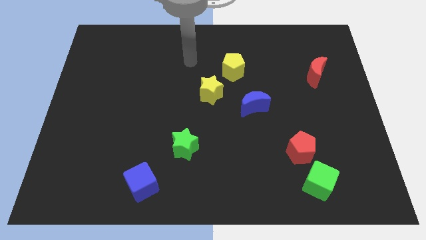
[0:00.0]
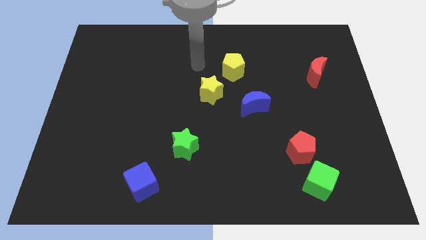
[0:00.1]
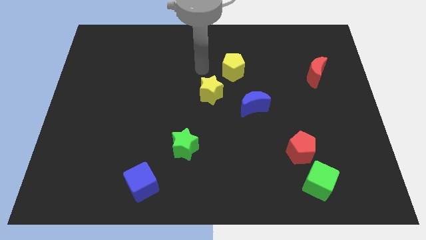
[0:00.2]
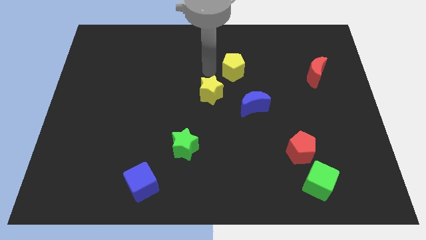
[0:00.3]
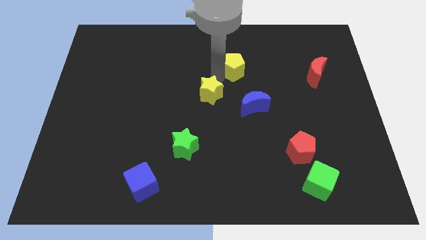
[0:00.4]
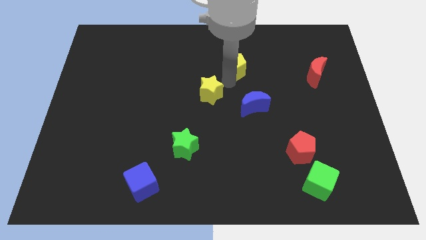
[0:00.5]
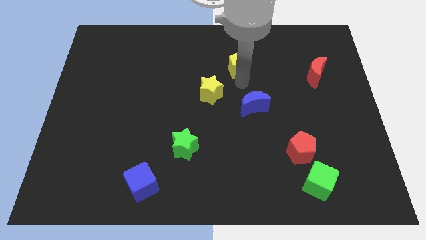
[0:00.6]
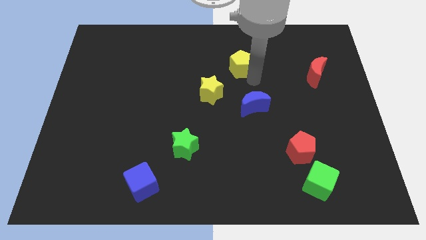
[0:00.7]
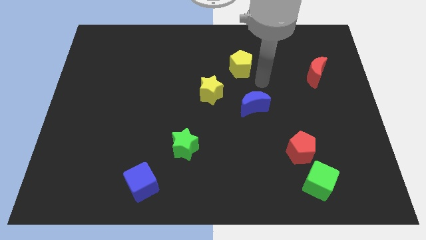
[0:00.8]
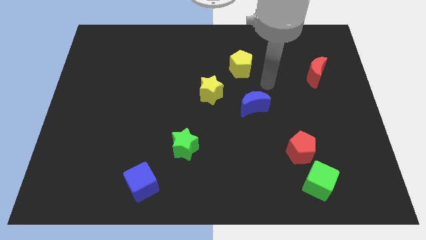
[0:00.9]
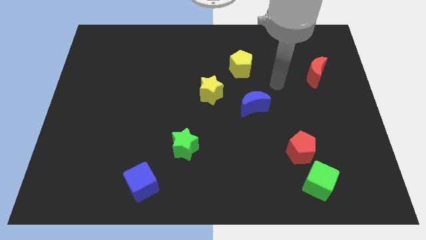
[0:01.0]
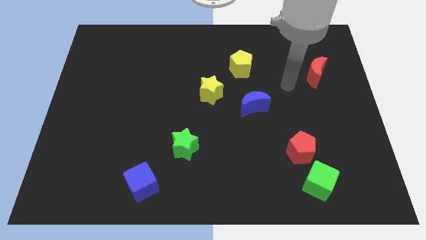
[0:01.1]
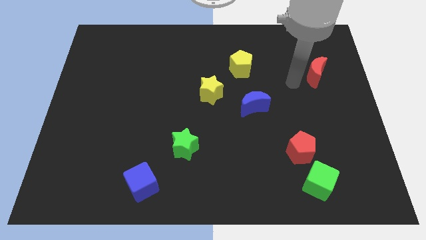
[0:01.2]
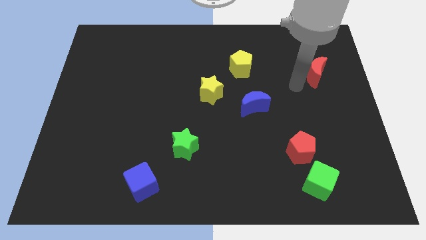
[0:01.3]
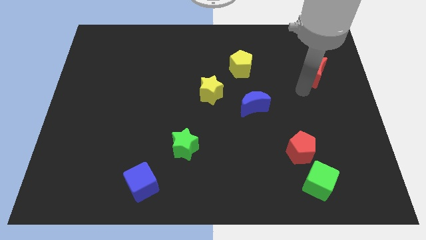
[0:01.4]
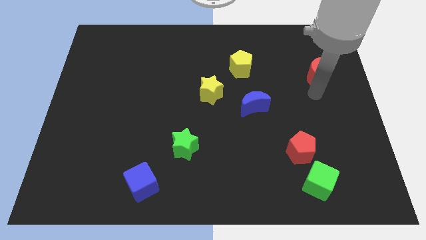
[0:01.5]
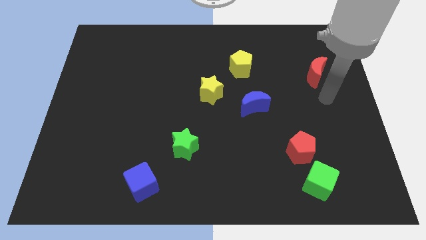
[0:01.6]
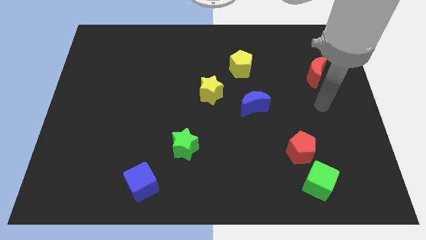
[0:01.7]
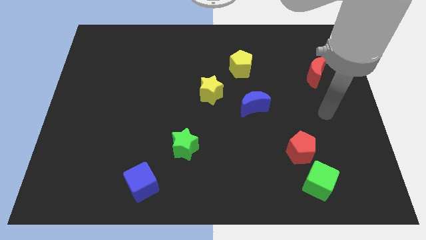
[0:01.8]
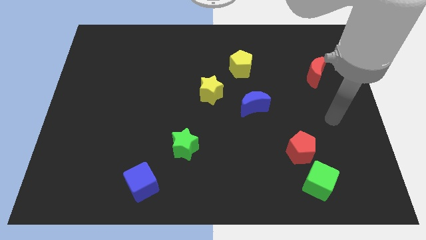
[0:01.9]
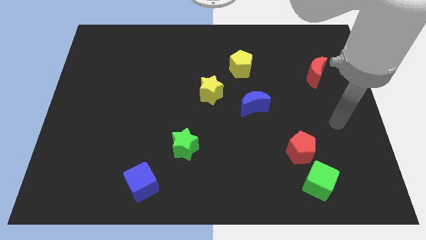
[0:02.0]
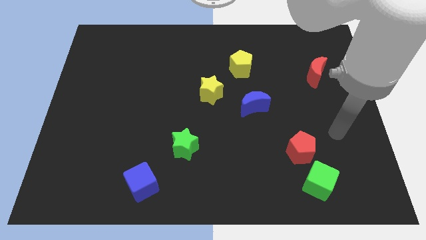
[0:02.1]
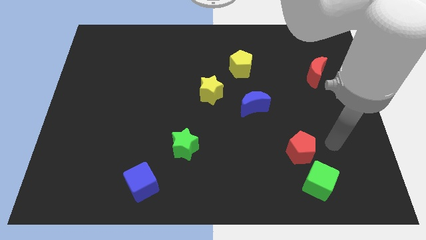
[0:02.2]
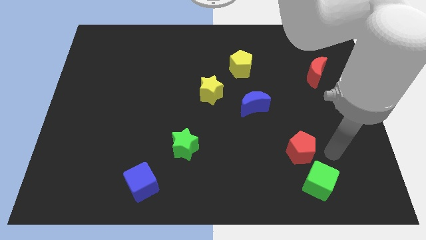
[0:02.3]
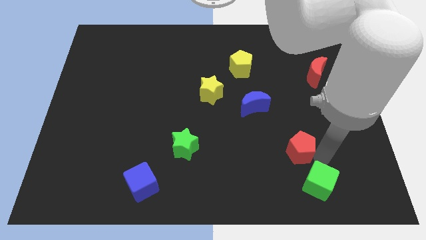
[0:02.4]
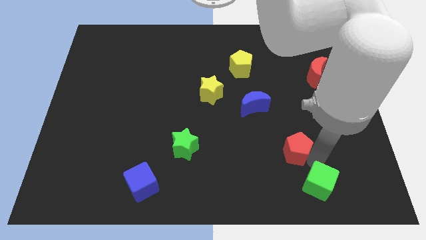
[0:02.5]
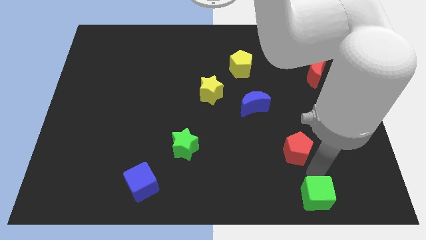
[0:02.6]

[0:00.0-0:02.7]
separate the red pentagon from the green cube

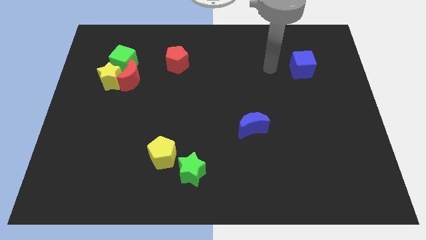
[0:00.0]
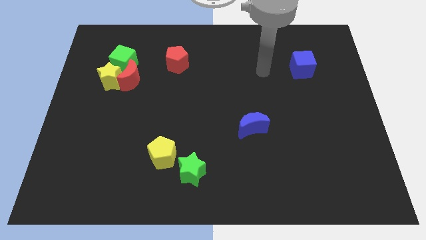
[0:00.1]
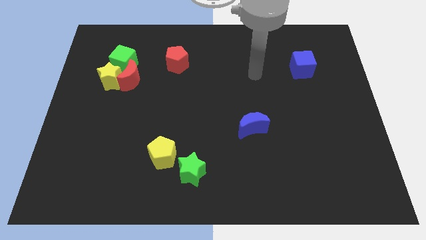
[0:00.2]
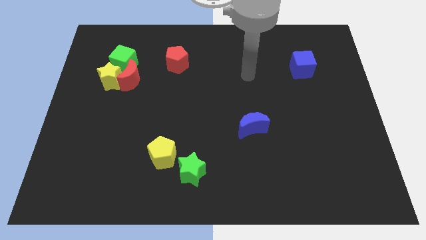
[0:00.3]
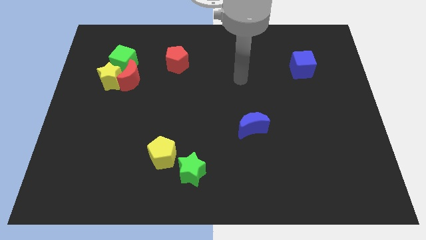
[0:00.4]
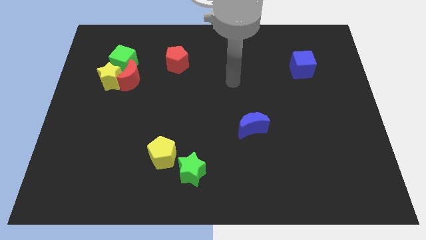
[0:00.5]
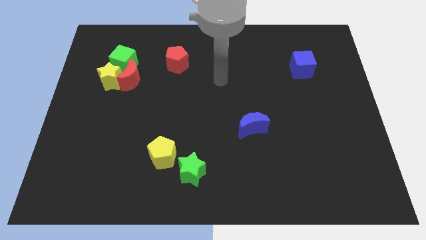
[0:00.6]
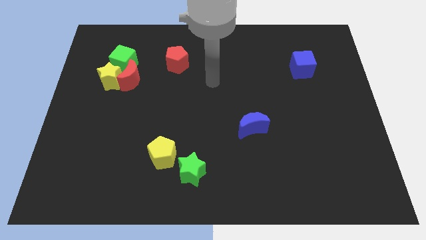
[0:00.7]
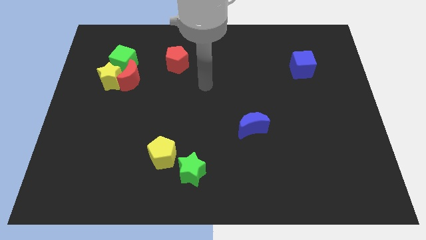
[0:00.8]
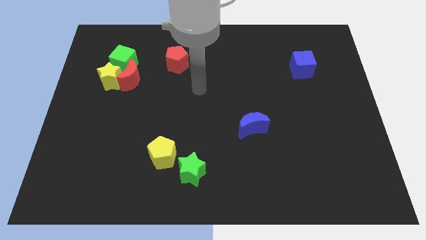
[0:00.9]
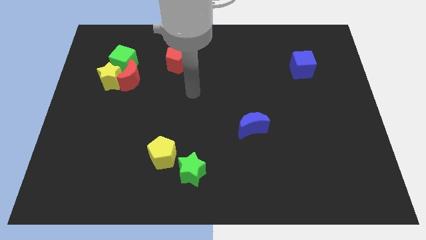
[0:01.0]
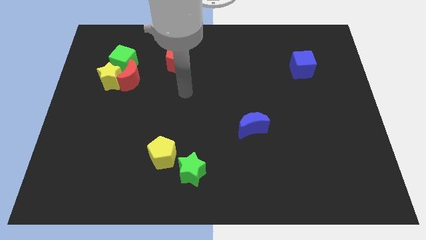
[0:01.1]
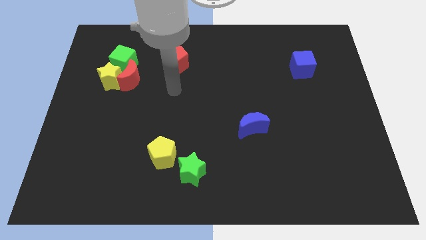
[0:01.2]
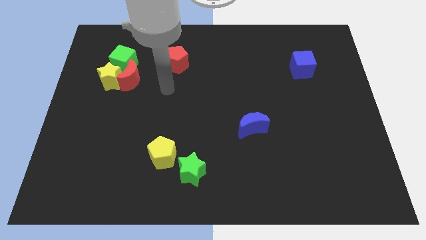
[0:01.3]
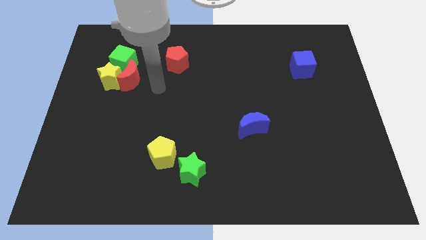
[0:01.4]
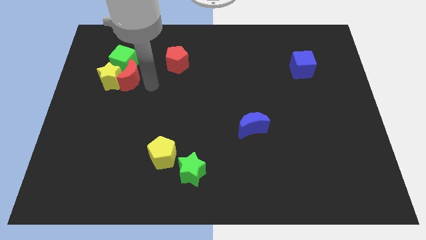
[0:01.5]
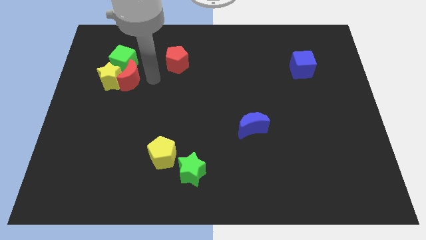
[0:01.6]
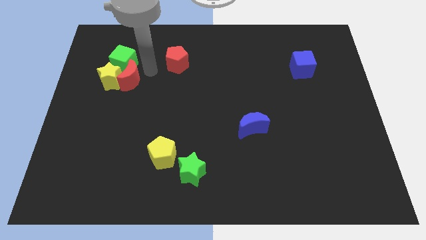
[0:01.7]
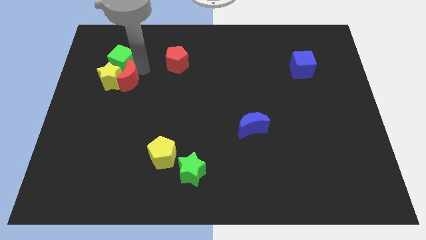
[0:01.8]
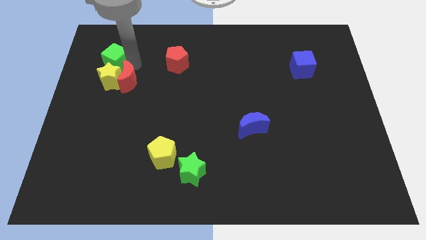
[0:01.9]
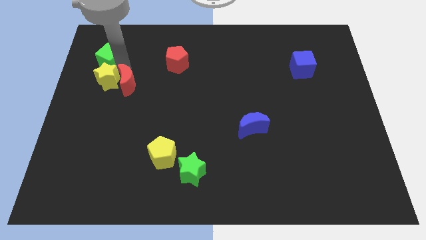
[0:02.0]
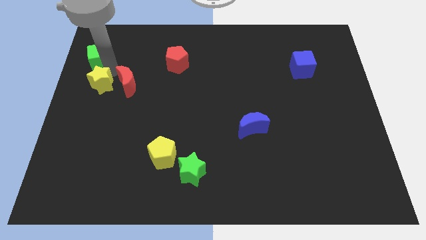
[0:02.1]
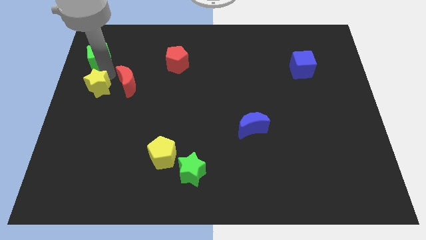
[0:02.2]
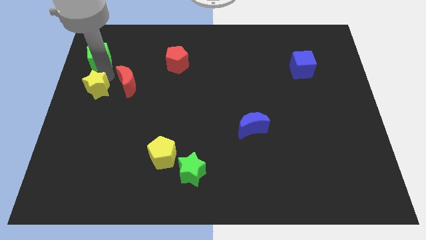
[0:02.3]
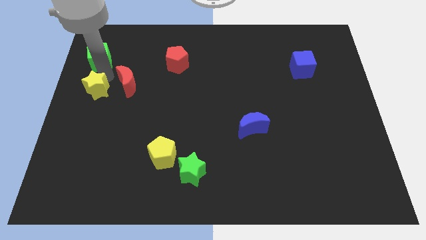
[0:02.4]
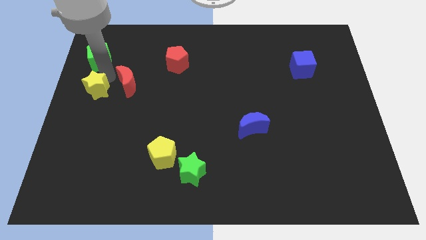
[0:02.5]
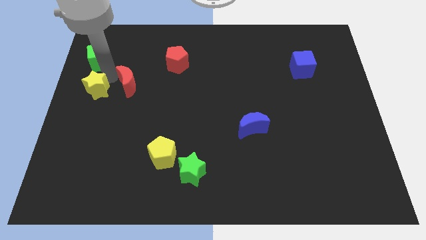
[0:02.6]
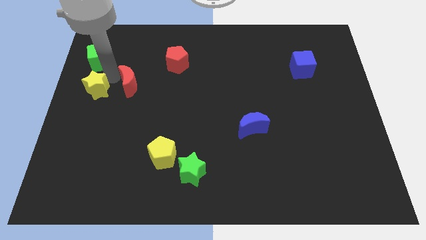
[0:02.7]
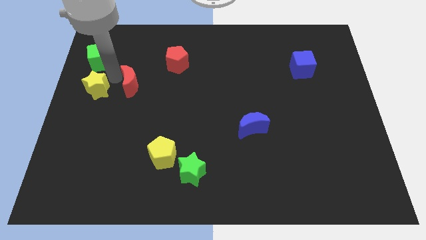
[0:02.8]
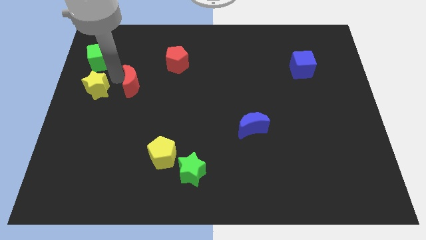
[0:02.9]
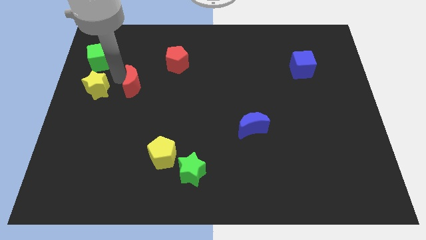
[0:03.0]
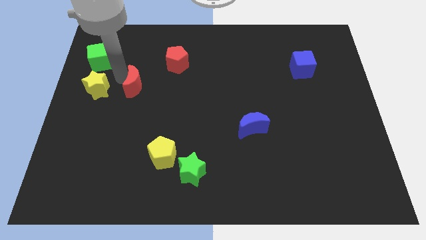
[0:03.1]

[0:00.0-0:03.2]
move the red moon away from the yellow star and green cube

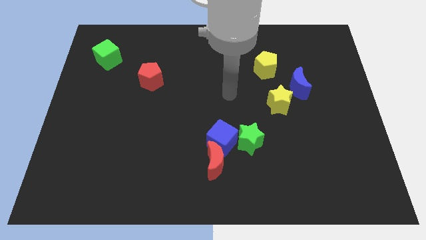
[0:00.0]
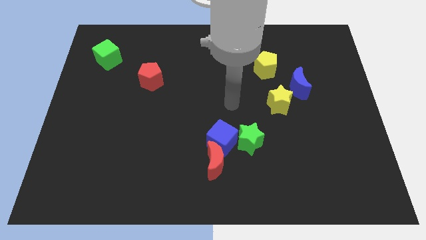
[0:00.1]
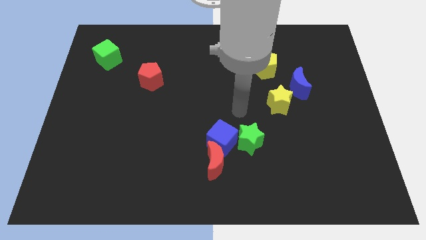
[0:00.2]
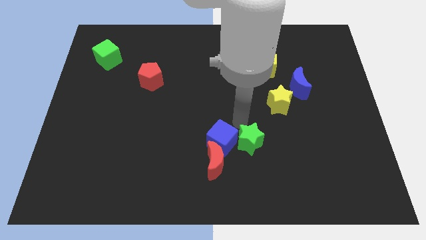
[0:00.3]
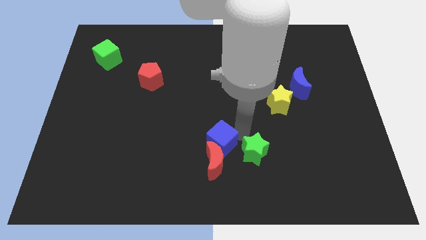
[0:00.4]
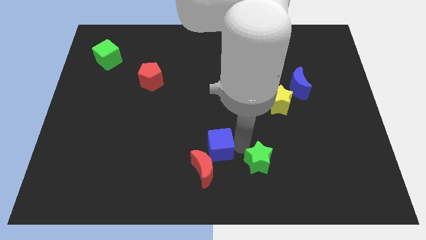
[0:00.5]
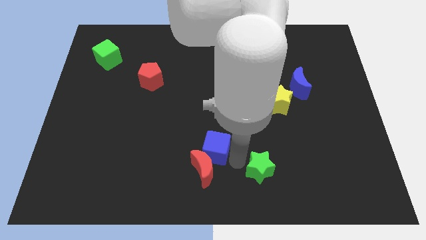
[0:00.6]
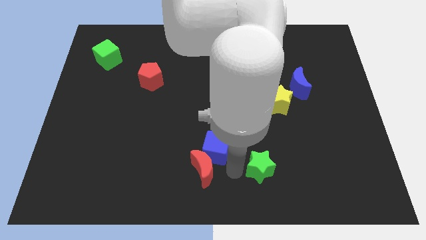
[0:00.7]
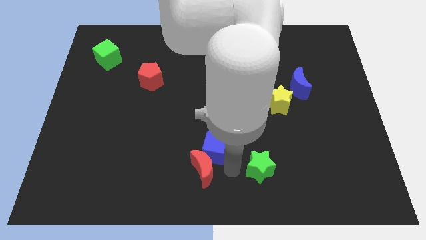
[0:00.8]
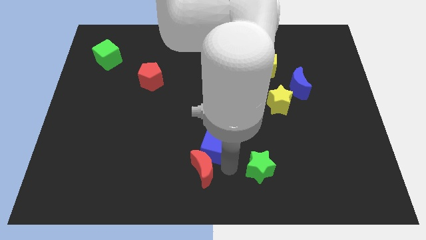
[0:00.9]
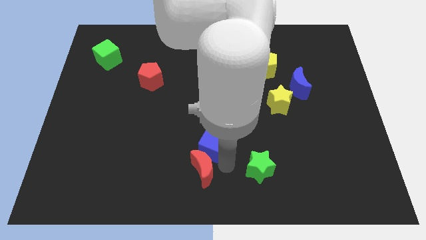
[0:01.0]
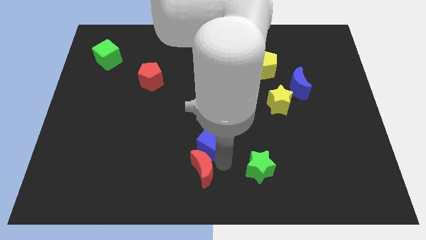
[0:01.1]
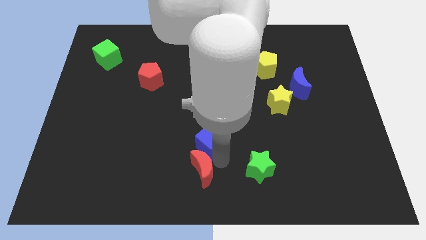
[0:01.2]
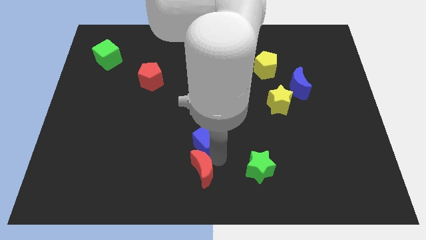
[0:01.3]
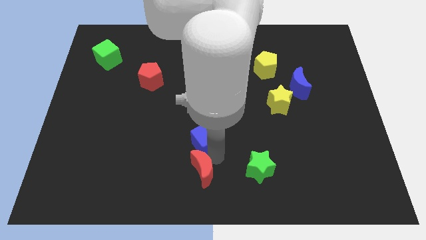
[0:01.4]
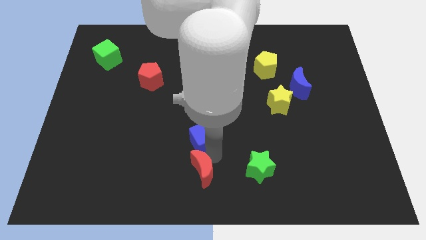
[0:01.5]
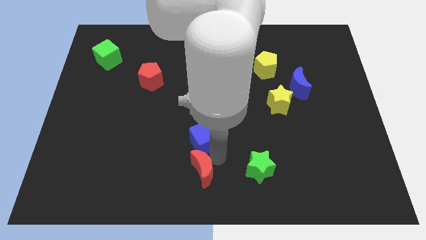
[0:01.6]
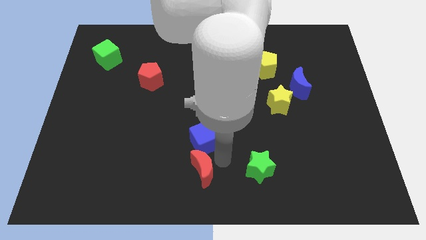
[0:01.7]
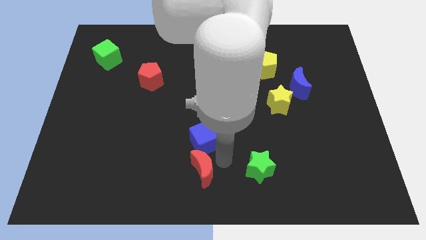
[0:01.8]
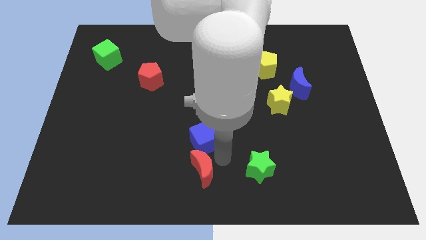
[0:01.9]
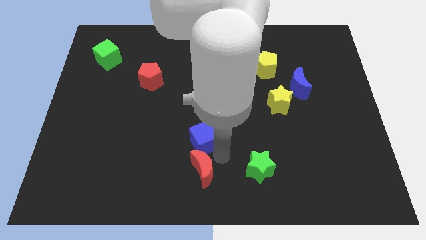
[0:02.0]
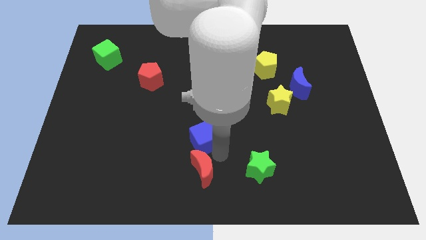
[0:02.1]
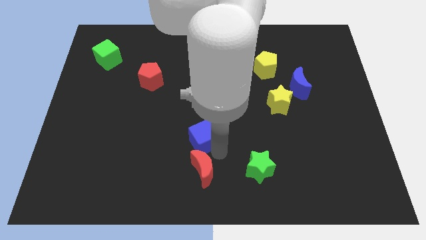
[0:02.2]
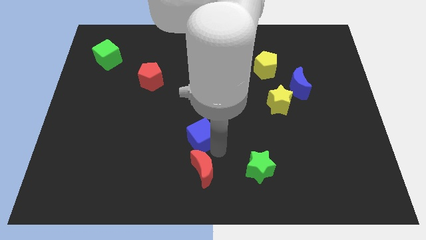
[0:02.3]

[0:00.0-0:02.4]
move the blue cube away from the red moon and green star

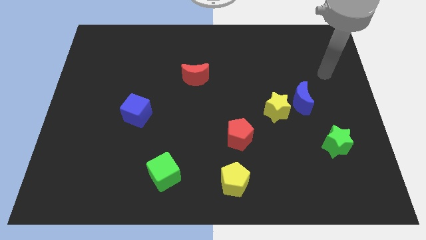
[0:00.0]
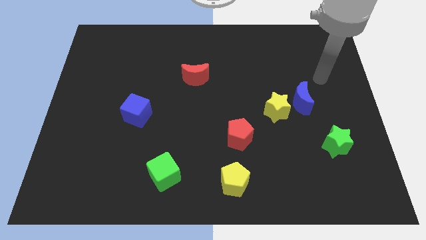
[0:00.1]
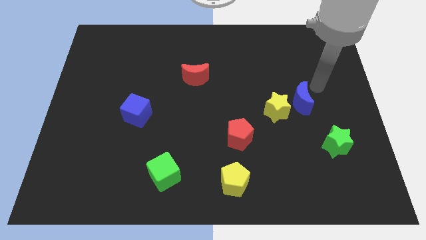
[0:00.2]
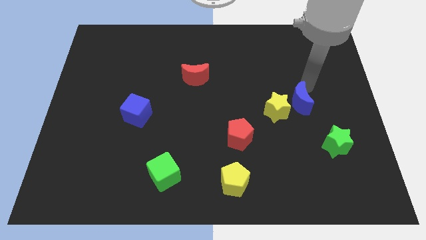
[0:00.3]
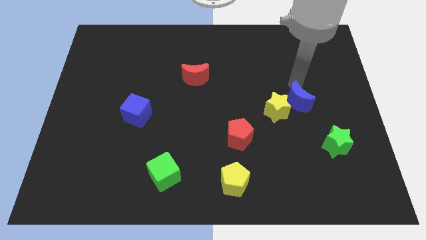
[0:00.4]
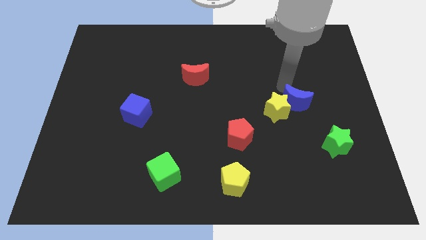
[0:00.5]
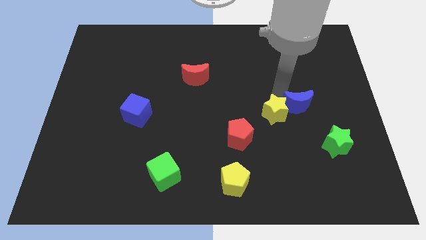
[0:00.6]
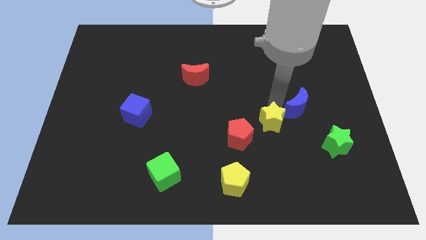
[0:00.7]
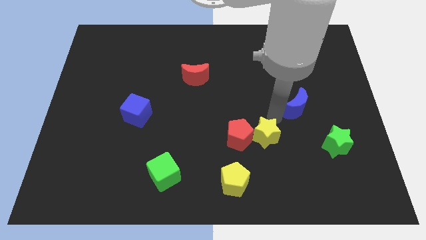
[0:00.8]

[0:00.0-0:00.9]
move the blue moon away from the yellow star

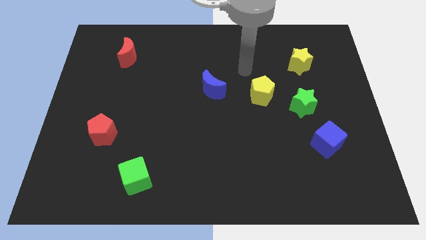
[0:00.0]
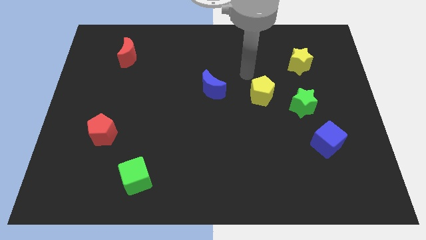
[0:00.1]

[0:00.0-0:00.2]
move the green star away from the yellow pentagon
